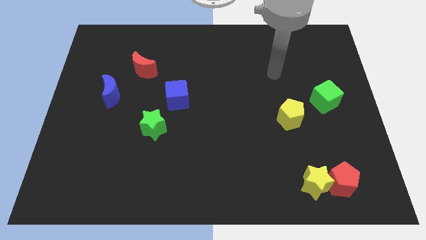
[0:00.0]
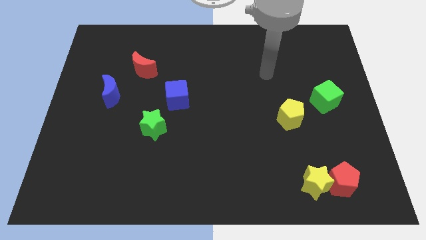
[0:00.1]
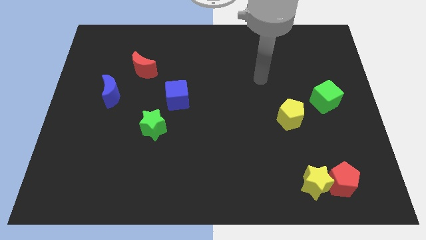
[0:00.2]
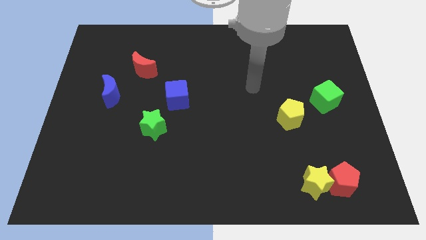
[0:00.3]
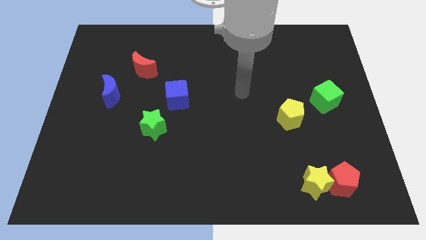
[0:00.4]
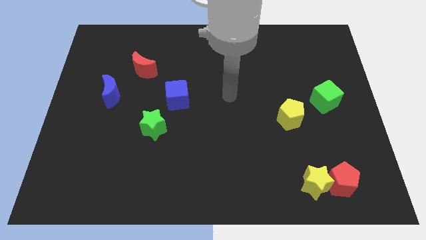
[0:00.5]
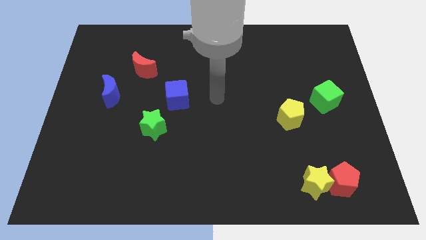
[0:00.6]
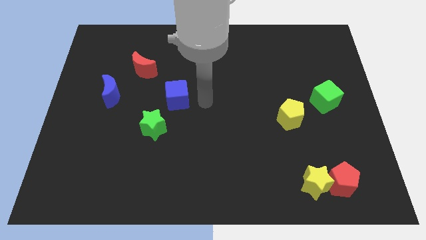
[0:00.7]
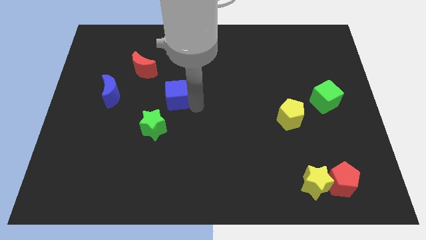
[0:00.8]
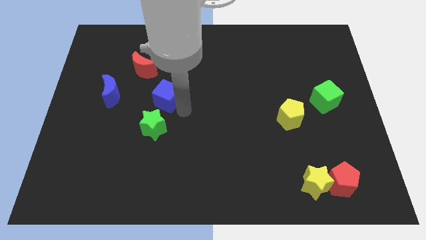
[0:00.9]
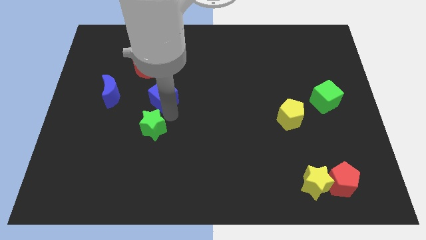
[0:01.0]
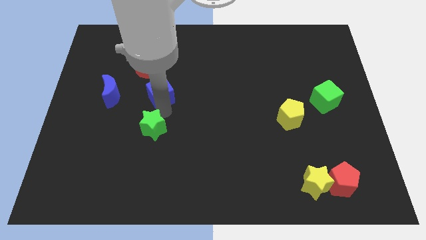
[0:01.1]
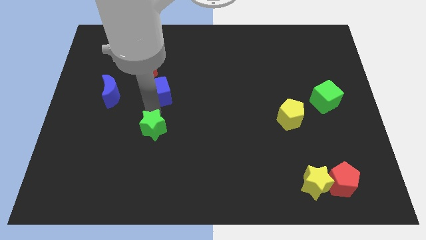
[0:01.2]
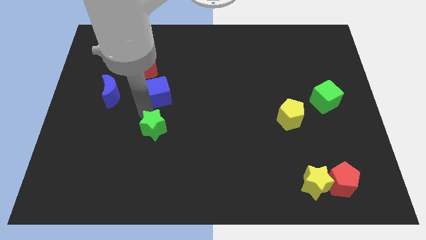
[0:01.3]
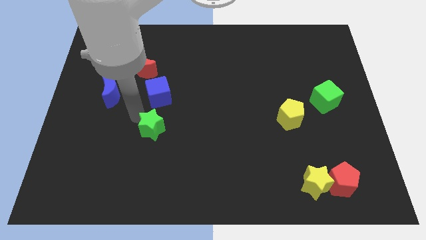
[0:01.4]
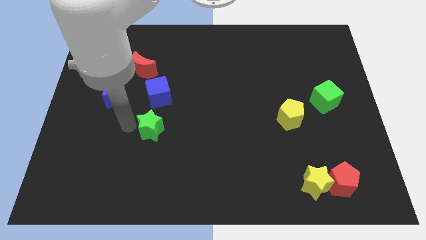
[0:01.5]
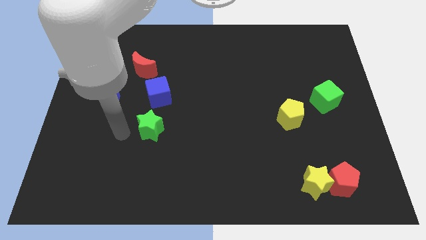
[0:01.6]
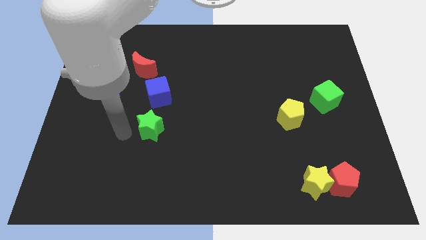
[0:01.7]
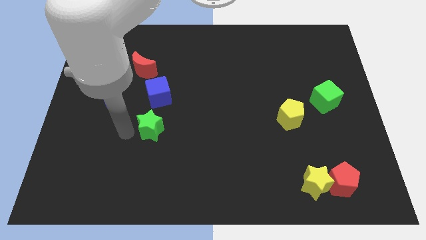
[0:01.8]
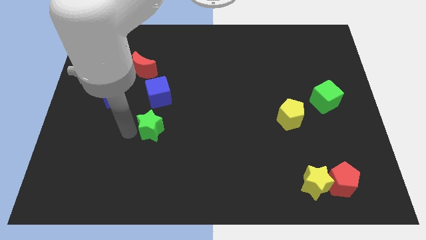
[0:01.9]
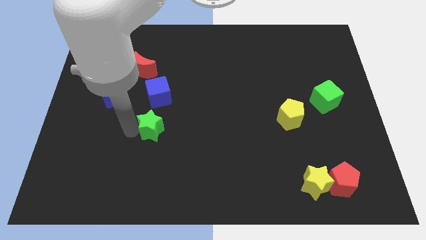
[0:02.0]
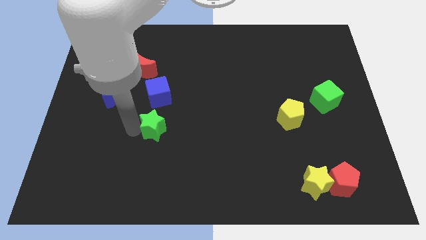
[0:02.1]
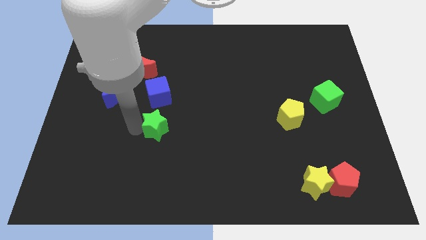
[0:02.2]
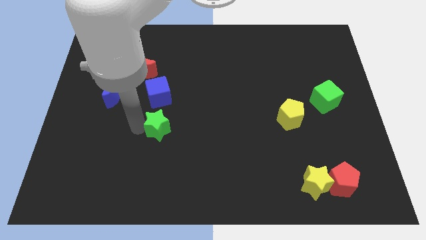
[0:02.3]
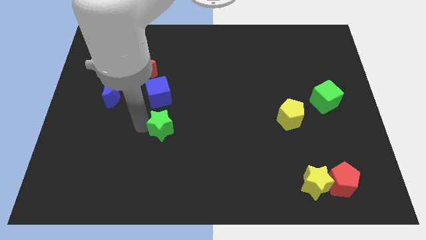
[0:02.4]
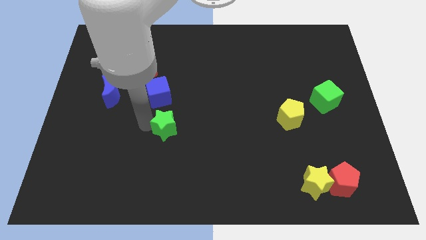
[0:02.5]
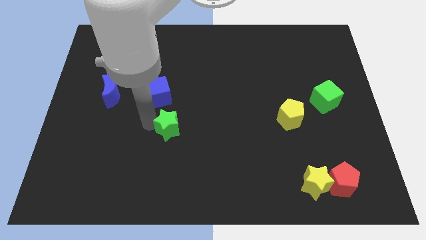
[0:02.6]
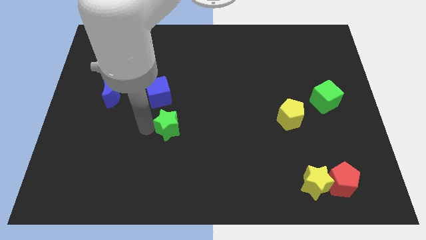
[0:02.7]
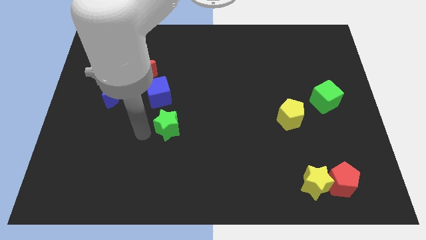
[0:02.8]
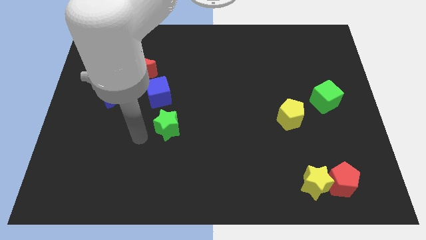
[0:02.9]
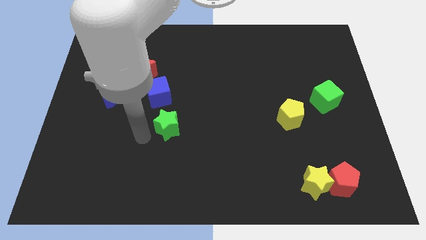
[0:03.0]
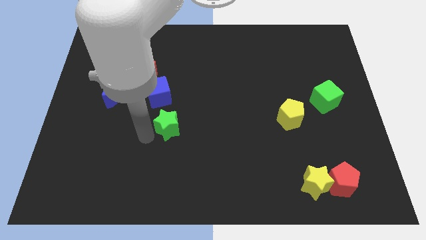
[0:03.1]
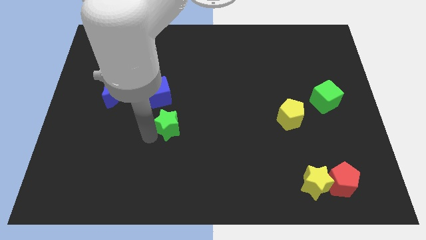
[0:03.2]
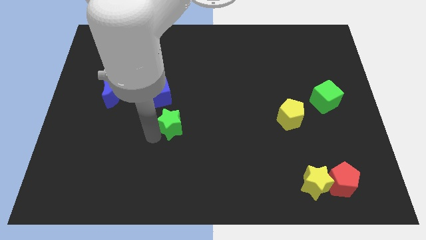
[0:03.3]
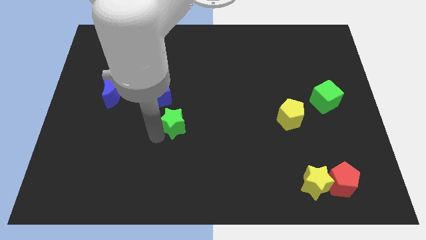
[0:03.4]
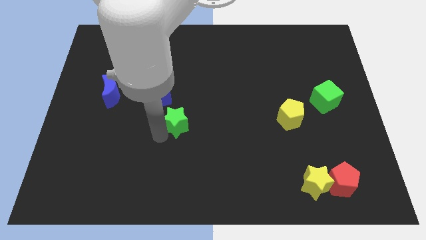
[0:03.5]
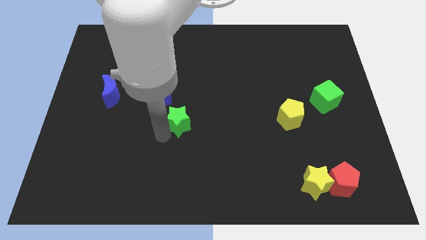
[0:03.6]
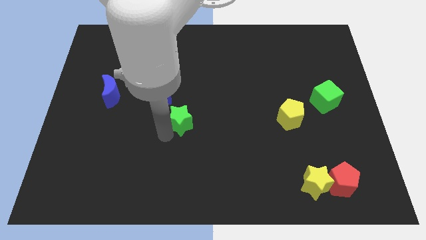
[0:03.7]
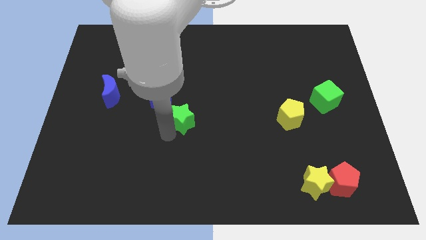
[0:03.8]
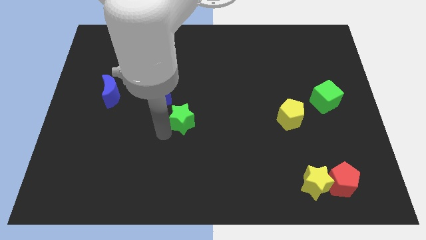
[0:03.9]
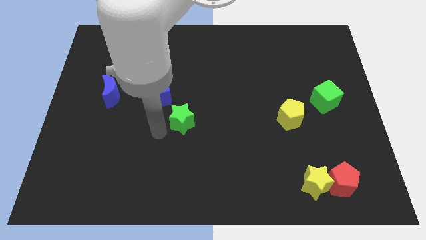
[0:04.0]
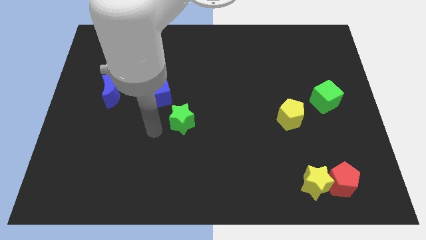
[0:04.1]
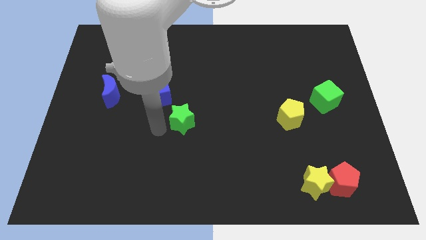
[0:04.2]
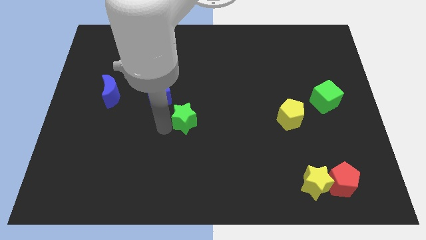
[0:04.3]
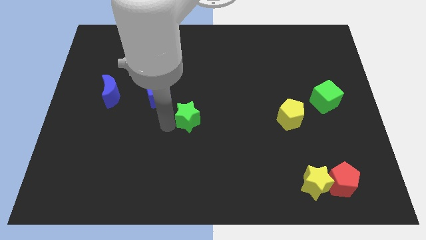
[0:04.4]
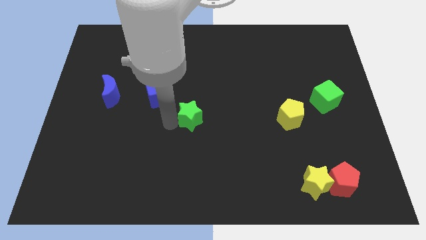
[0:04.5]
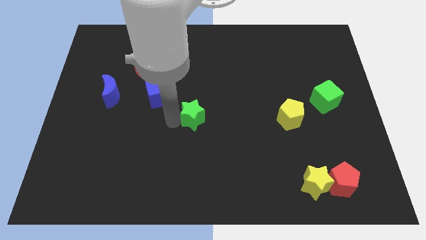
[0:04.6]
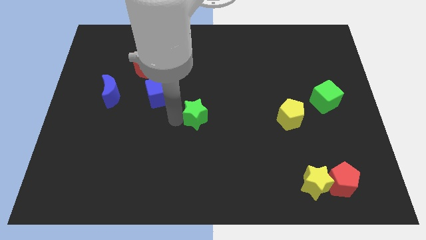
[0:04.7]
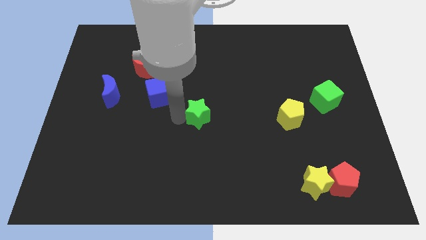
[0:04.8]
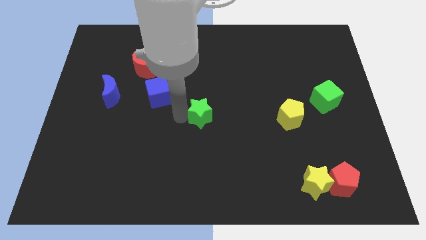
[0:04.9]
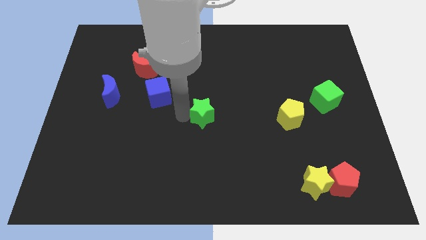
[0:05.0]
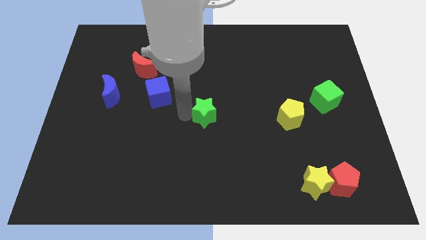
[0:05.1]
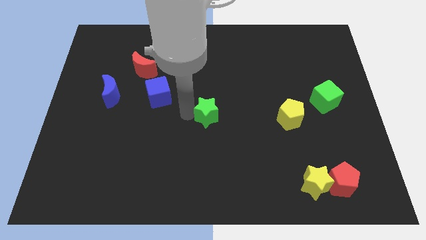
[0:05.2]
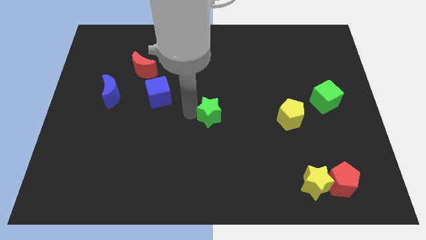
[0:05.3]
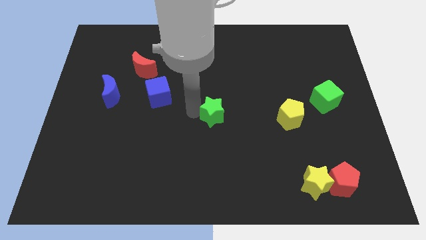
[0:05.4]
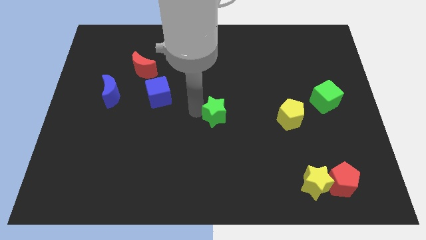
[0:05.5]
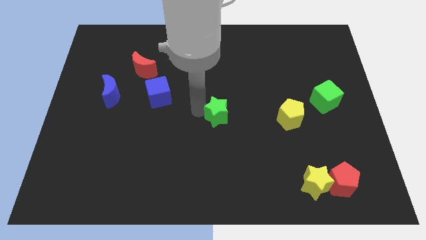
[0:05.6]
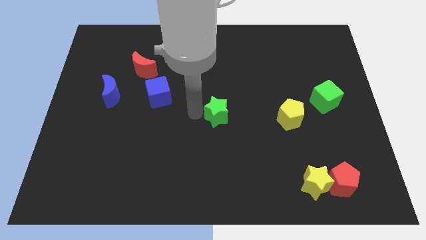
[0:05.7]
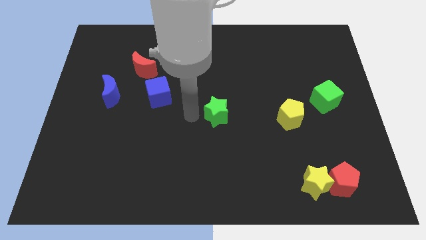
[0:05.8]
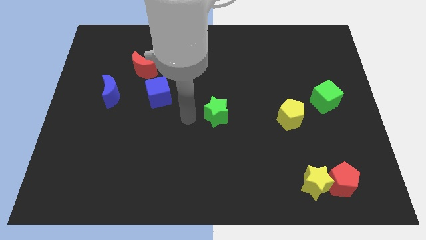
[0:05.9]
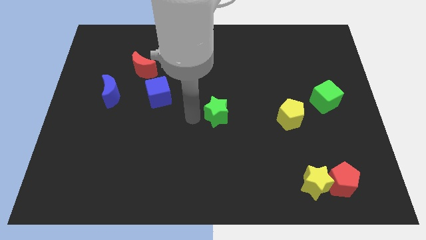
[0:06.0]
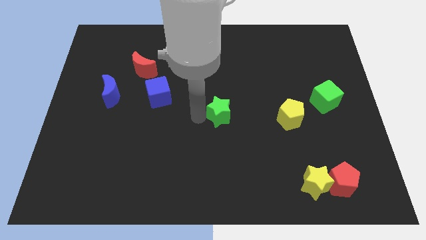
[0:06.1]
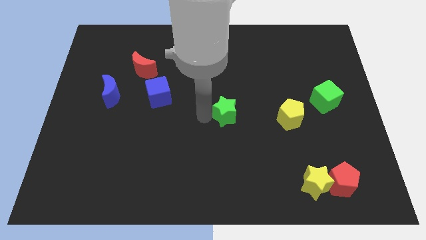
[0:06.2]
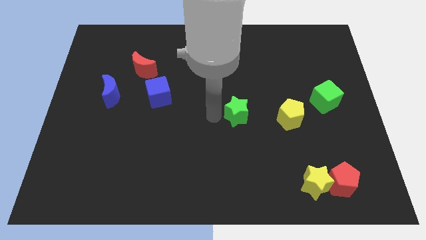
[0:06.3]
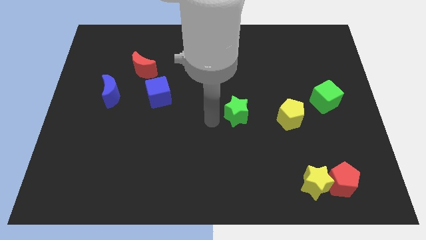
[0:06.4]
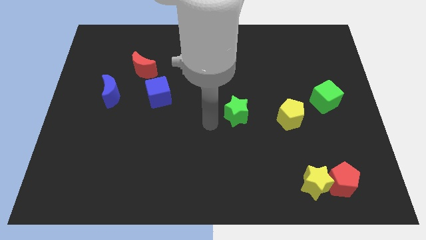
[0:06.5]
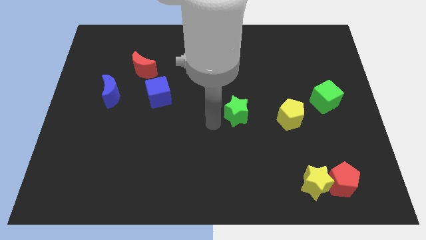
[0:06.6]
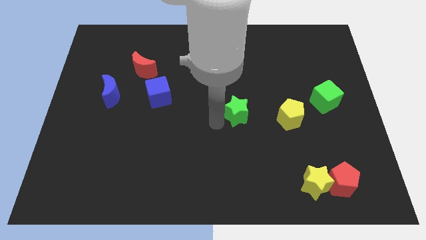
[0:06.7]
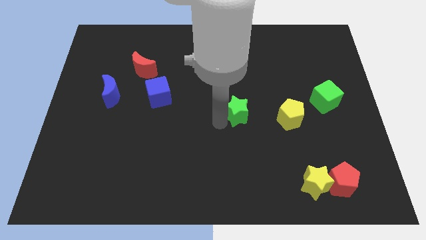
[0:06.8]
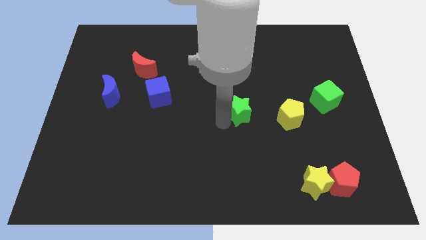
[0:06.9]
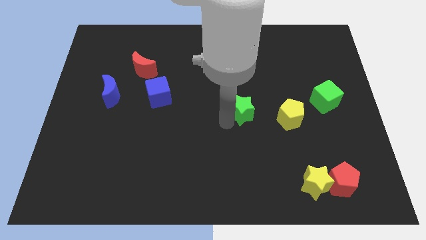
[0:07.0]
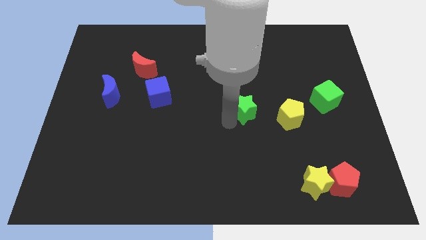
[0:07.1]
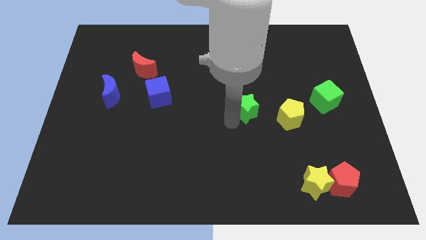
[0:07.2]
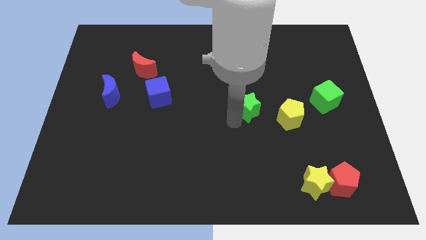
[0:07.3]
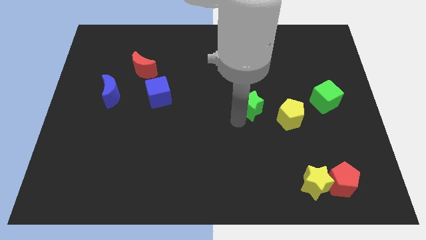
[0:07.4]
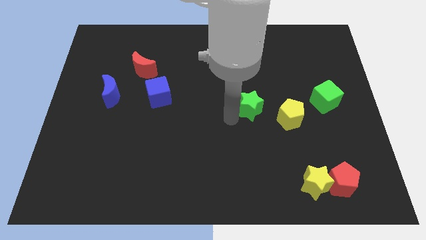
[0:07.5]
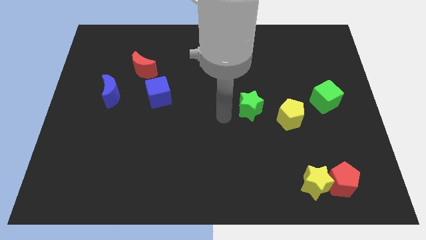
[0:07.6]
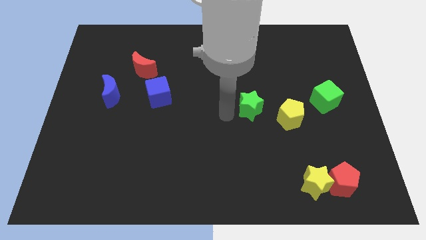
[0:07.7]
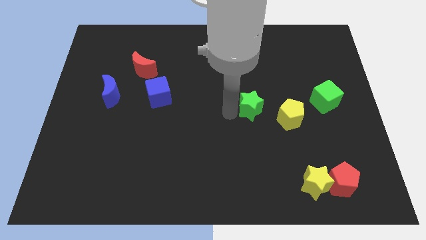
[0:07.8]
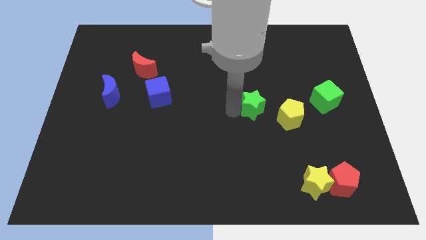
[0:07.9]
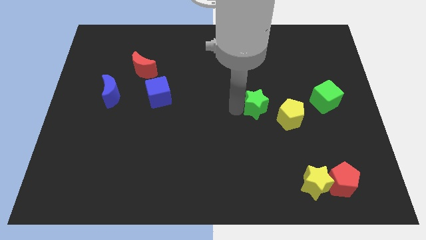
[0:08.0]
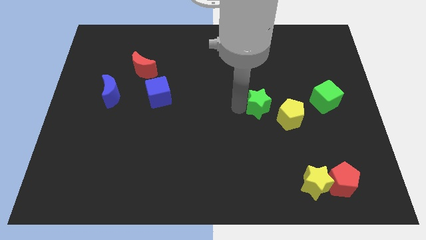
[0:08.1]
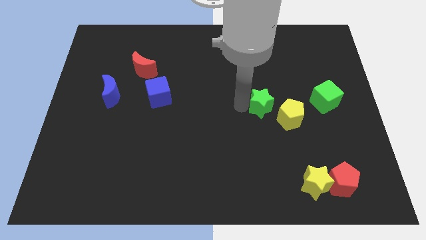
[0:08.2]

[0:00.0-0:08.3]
push the green star just left of the green cube

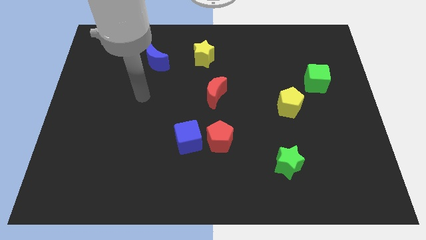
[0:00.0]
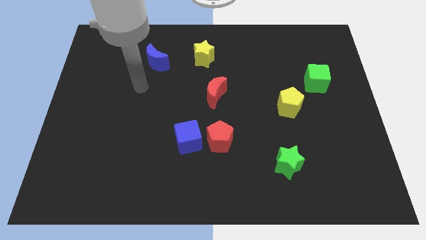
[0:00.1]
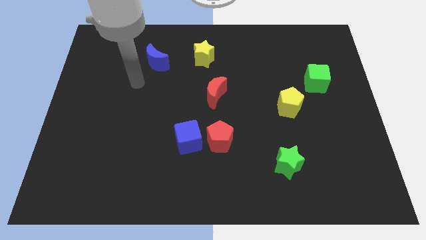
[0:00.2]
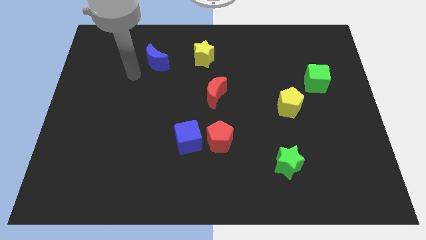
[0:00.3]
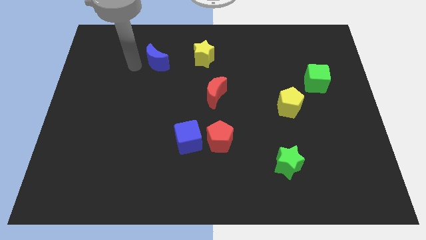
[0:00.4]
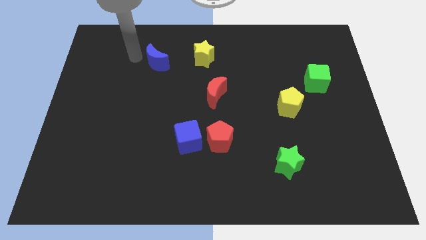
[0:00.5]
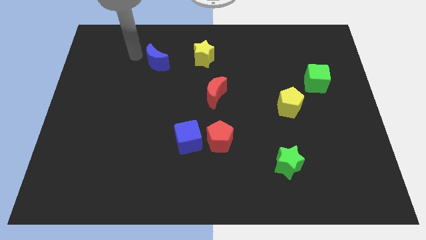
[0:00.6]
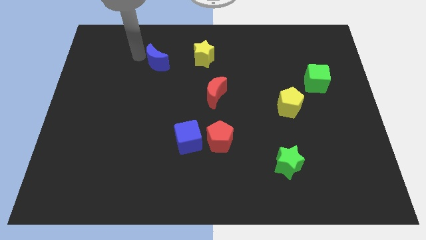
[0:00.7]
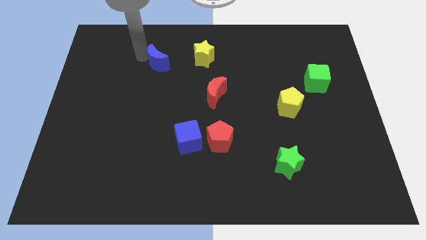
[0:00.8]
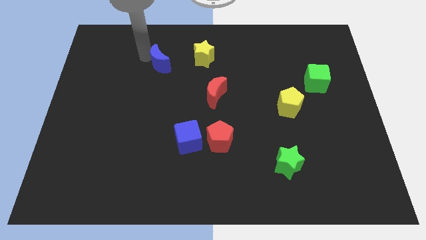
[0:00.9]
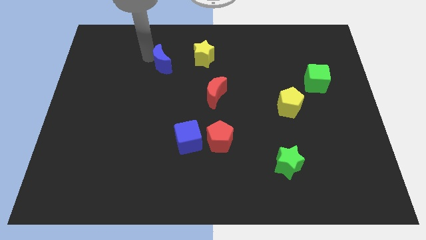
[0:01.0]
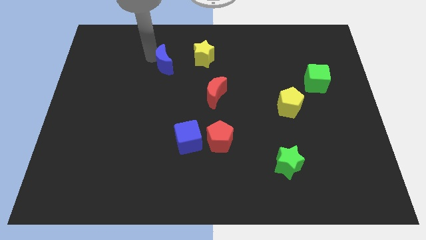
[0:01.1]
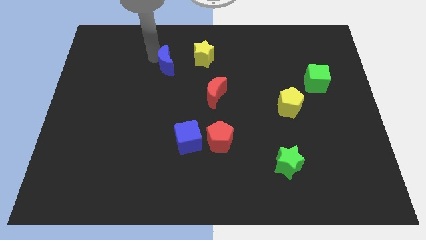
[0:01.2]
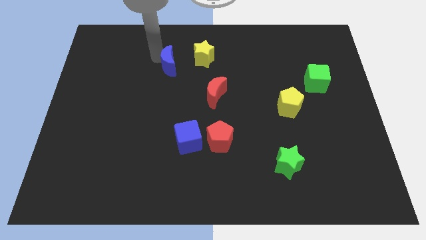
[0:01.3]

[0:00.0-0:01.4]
move the blue moon to the bottom left side of the yellow star
